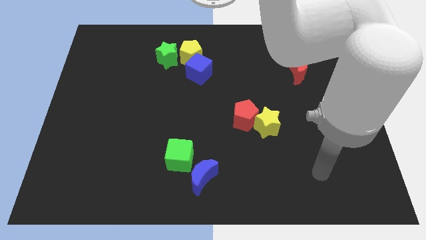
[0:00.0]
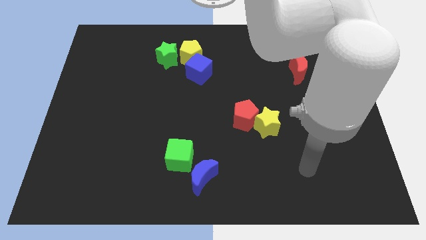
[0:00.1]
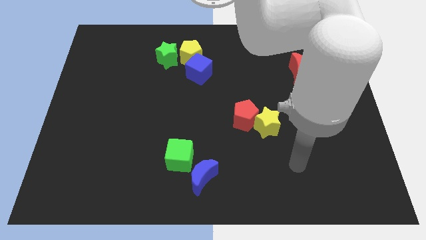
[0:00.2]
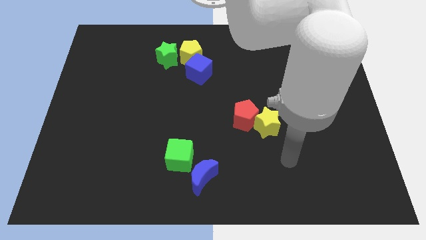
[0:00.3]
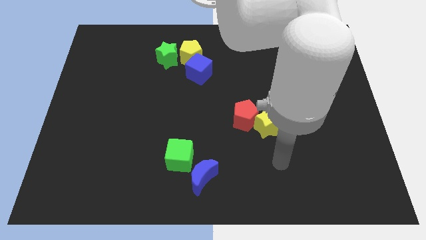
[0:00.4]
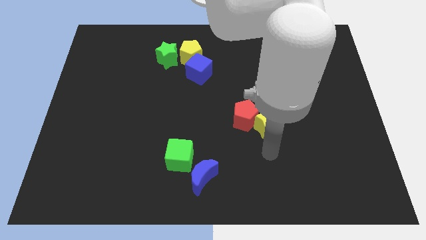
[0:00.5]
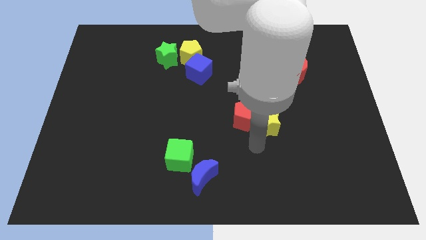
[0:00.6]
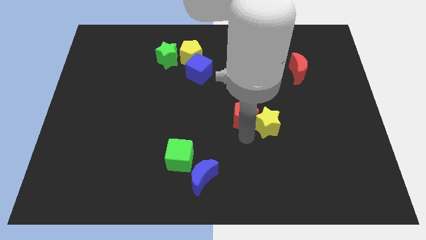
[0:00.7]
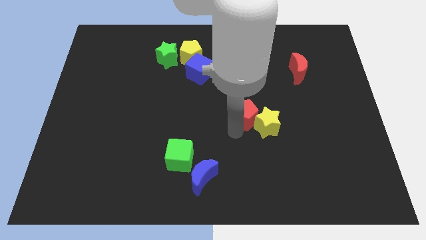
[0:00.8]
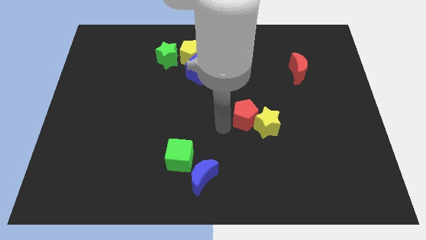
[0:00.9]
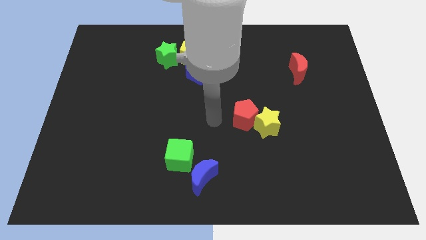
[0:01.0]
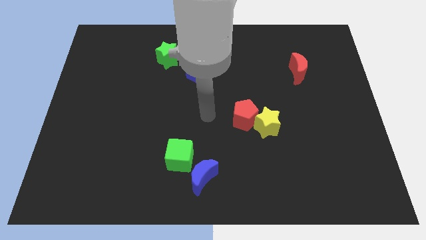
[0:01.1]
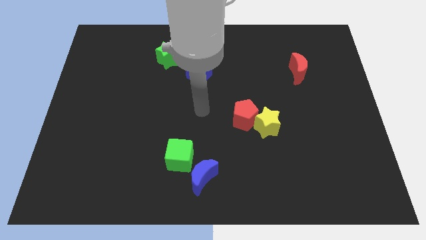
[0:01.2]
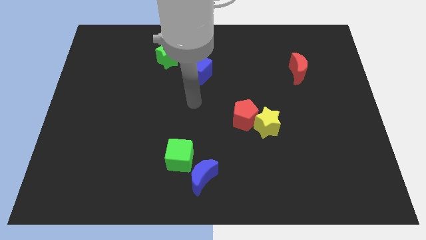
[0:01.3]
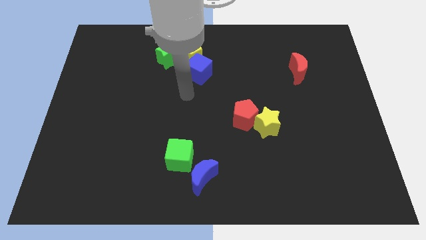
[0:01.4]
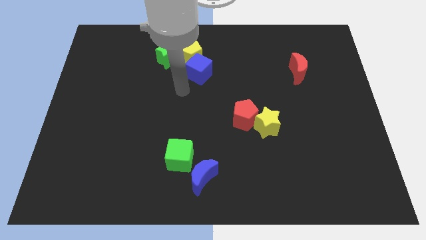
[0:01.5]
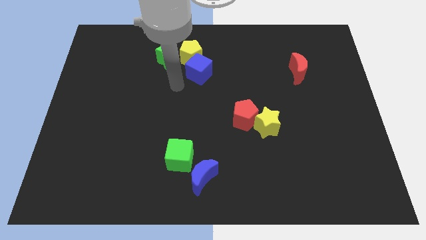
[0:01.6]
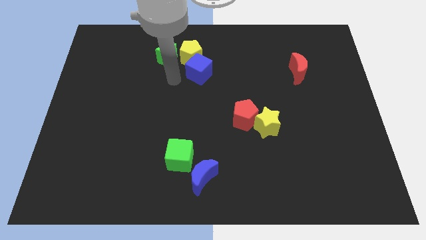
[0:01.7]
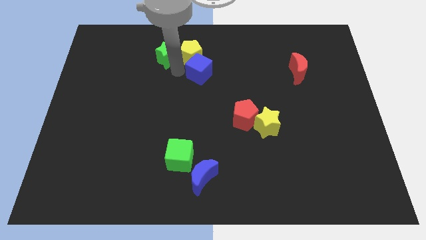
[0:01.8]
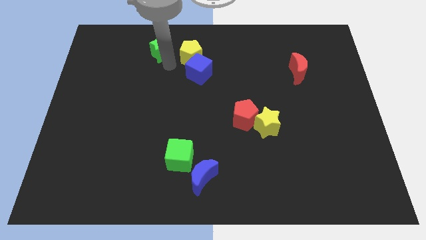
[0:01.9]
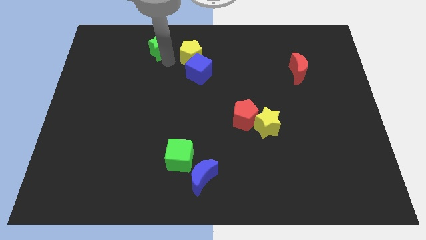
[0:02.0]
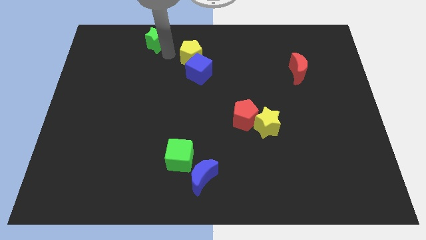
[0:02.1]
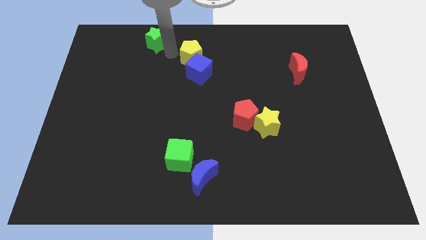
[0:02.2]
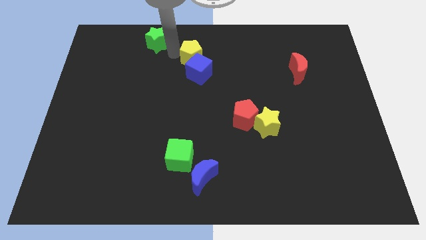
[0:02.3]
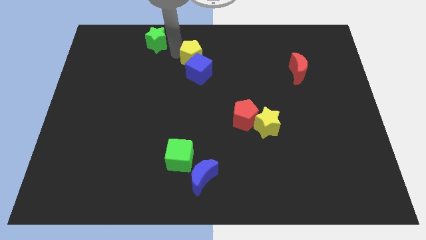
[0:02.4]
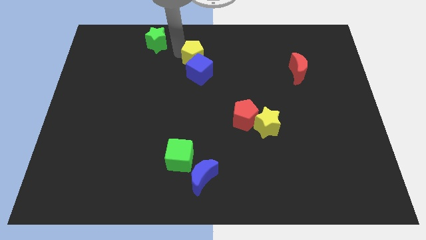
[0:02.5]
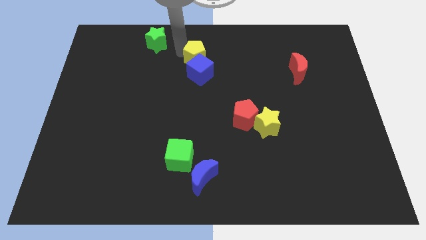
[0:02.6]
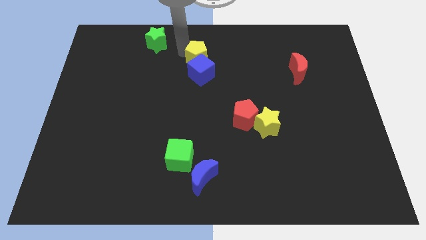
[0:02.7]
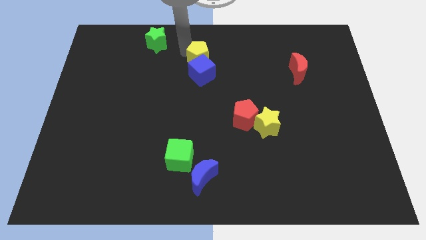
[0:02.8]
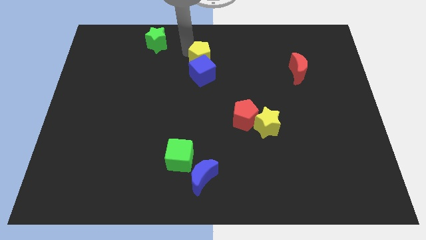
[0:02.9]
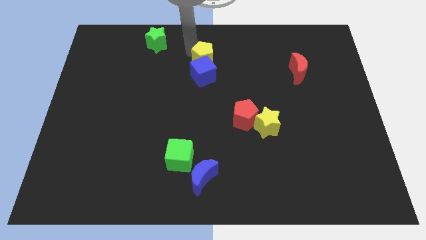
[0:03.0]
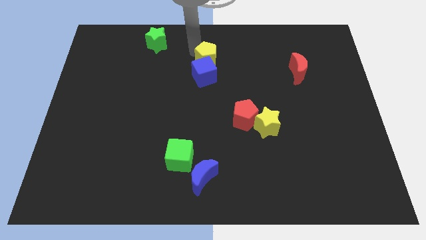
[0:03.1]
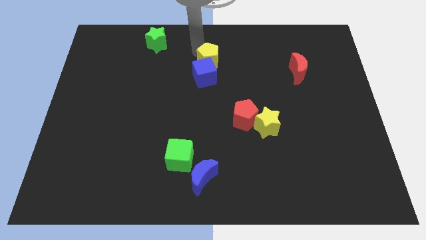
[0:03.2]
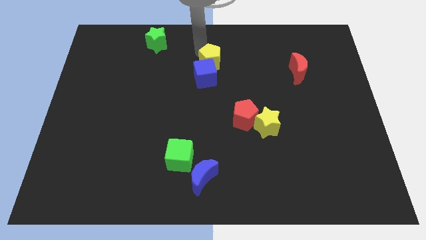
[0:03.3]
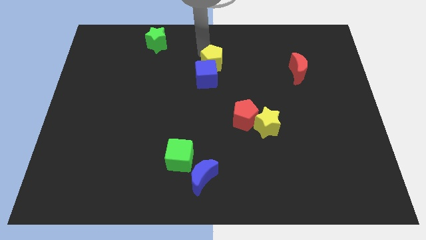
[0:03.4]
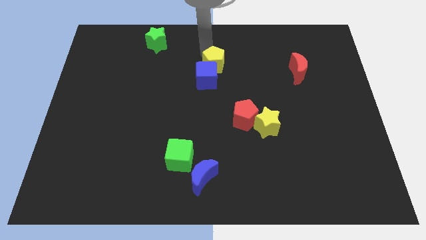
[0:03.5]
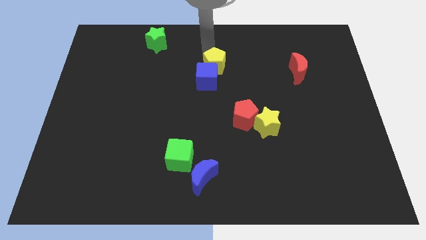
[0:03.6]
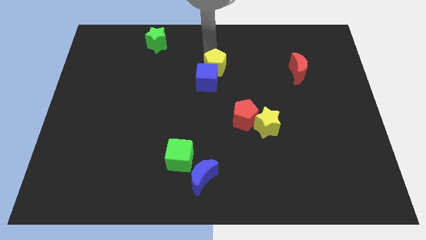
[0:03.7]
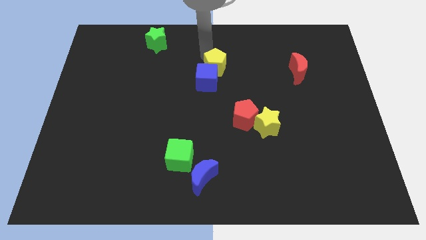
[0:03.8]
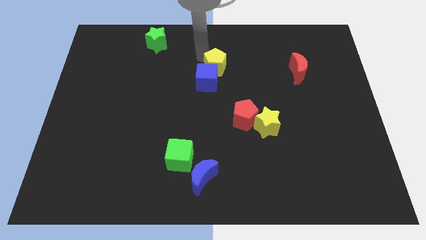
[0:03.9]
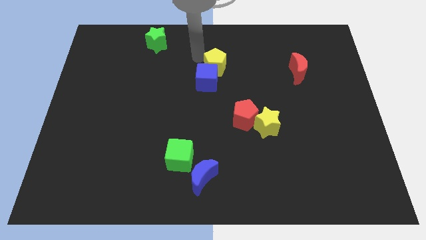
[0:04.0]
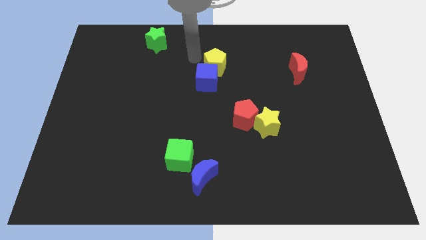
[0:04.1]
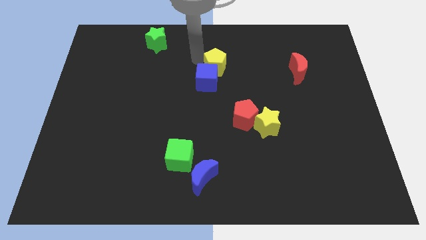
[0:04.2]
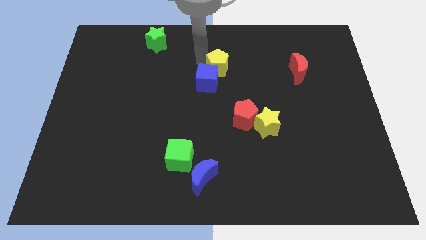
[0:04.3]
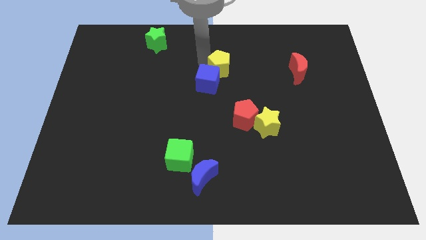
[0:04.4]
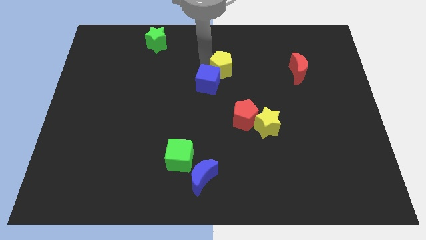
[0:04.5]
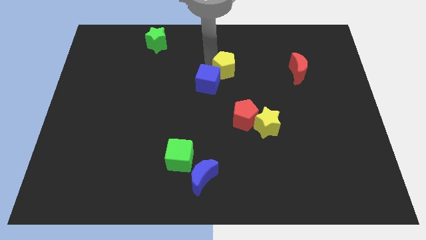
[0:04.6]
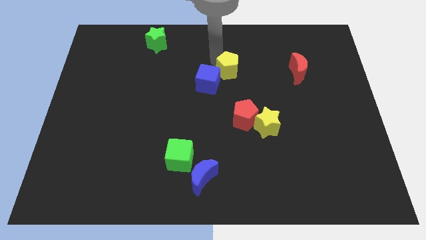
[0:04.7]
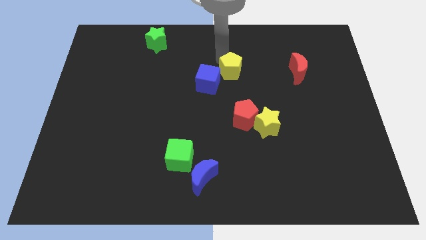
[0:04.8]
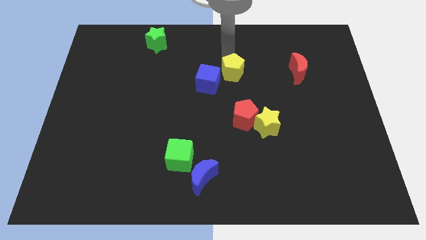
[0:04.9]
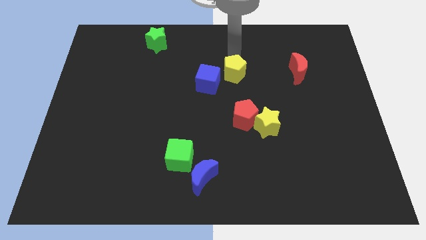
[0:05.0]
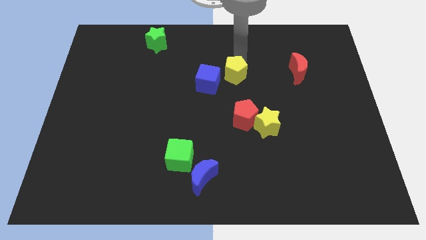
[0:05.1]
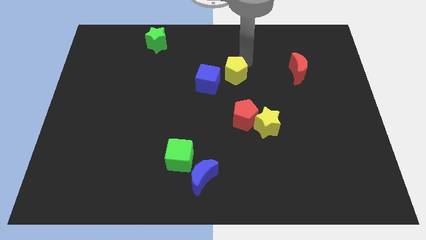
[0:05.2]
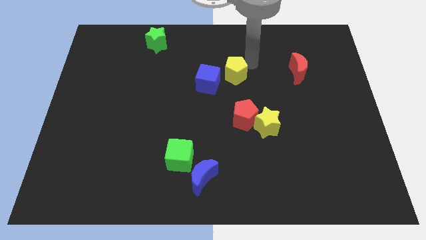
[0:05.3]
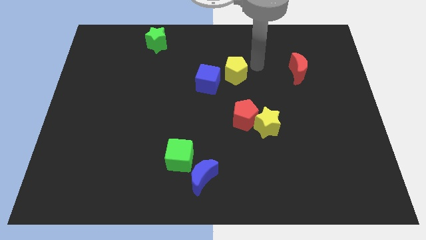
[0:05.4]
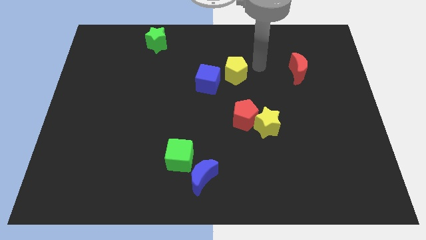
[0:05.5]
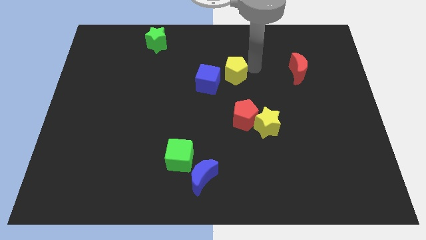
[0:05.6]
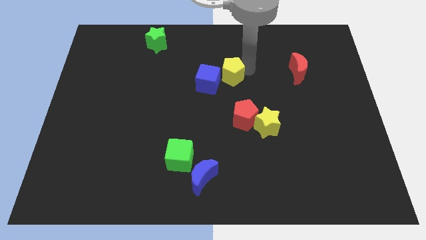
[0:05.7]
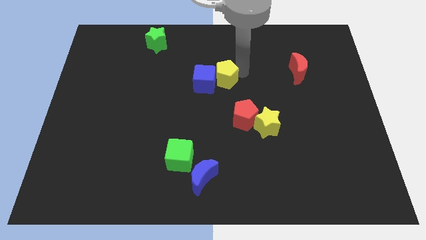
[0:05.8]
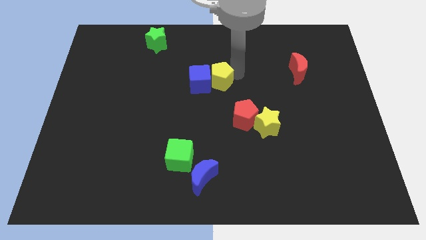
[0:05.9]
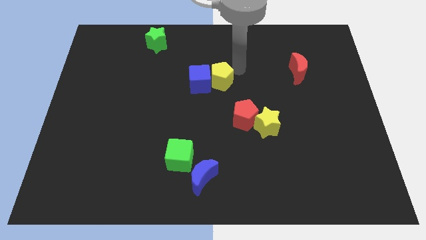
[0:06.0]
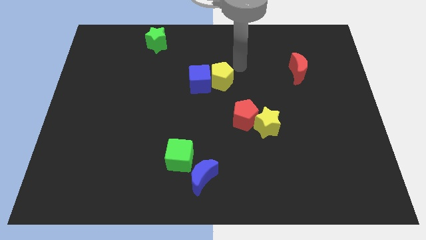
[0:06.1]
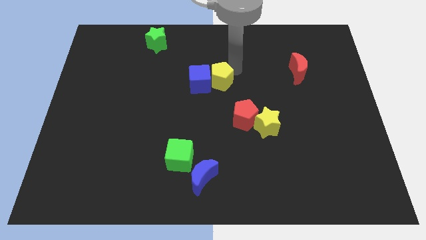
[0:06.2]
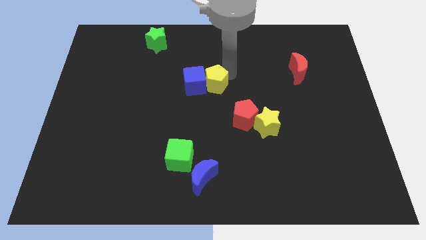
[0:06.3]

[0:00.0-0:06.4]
move the yellow pentagon downwards a bit

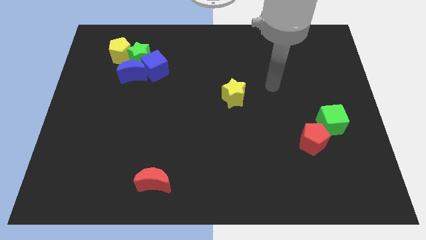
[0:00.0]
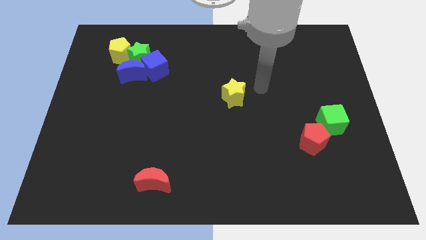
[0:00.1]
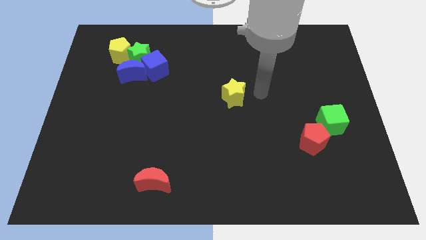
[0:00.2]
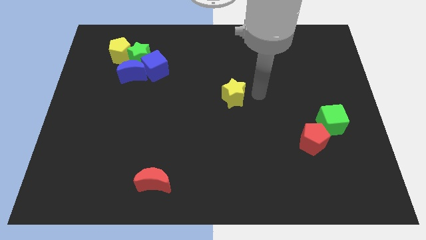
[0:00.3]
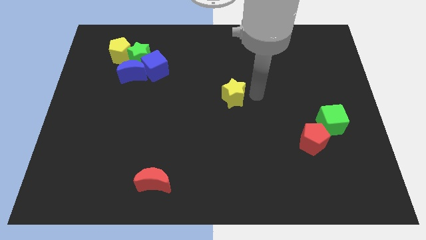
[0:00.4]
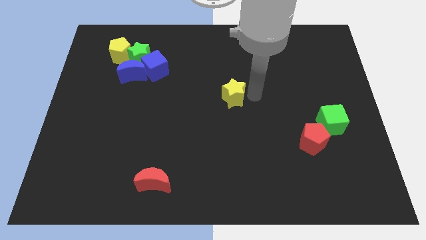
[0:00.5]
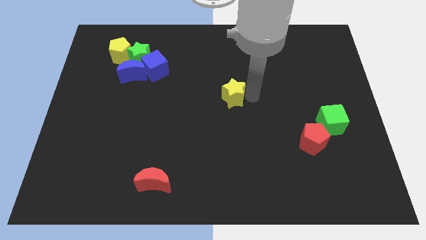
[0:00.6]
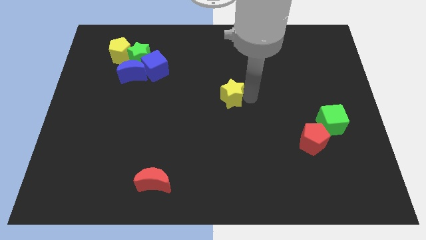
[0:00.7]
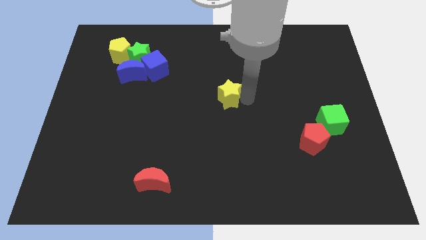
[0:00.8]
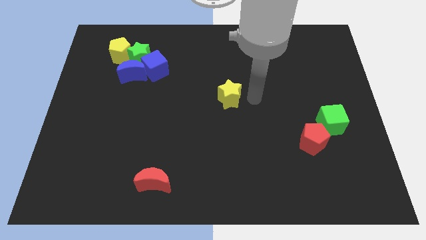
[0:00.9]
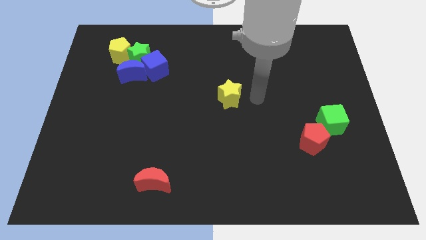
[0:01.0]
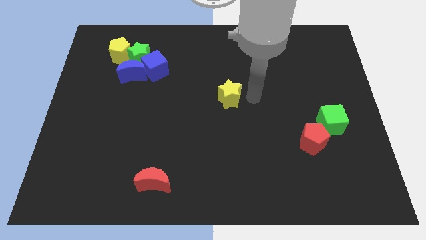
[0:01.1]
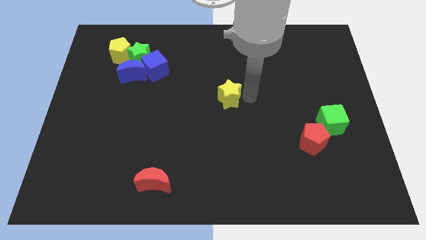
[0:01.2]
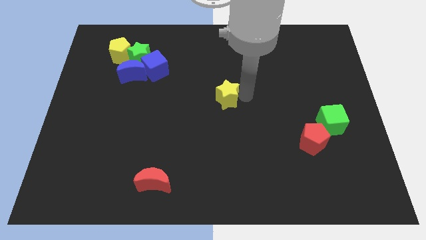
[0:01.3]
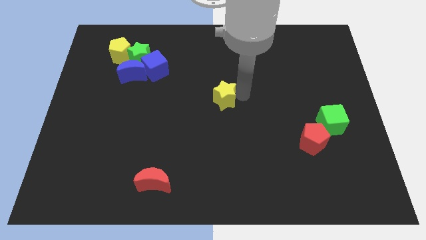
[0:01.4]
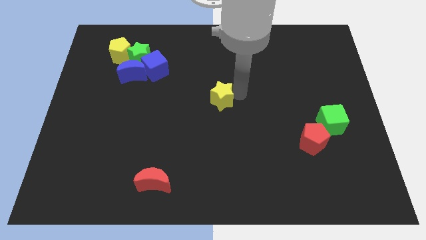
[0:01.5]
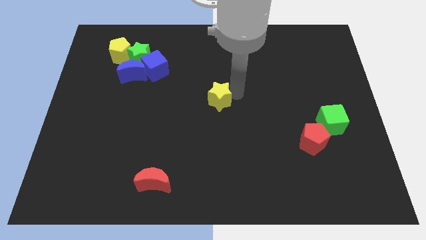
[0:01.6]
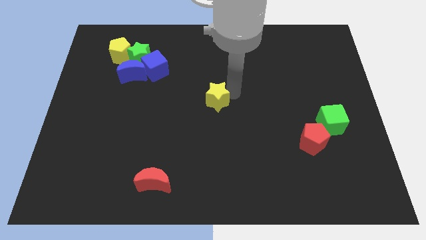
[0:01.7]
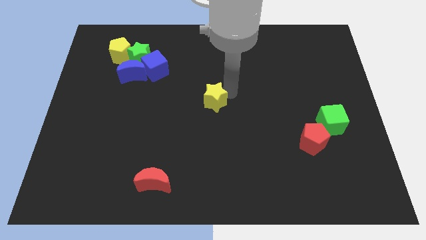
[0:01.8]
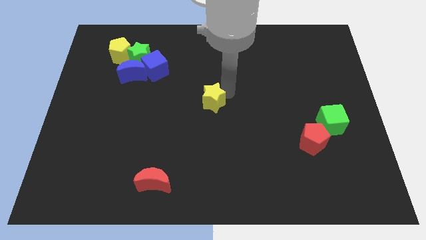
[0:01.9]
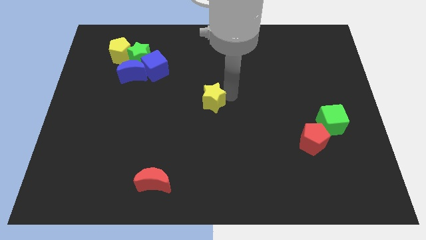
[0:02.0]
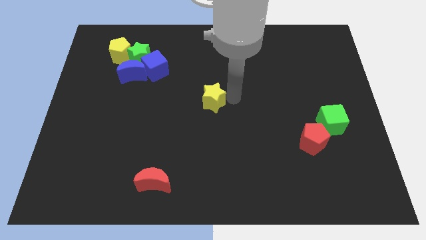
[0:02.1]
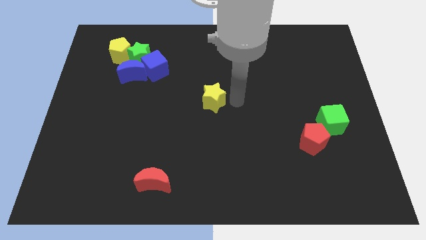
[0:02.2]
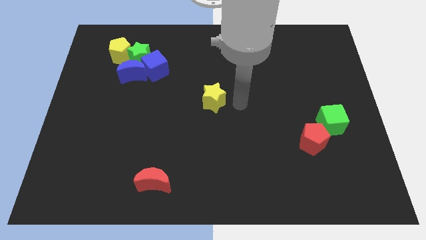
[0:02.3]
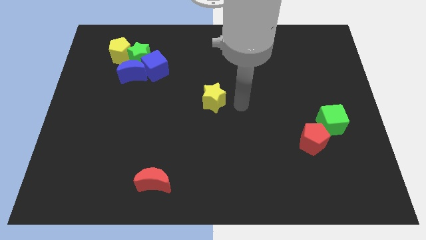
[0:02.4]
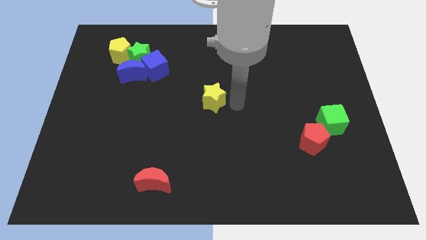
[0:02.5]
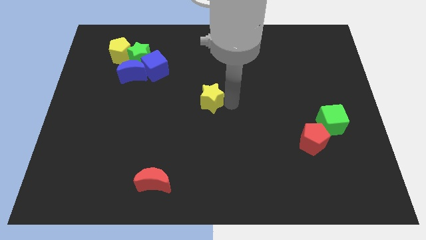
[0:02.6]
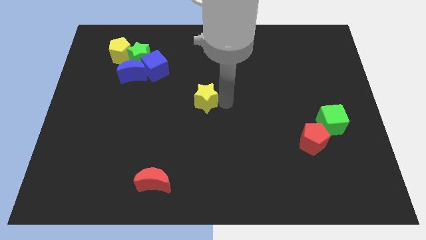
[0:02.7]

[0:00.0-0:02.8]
slightly move the yellow star left
